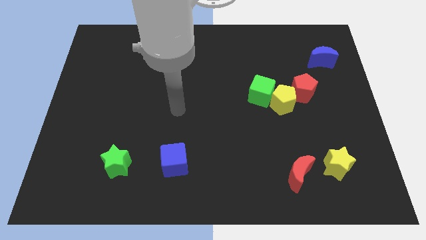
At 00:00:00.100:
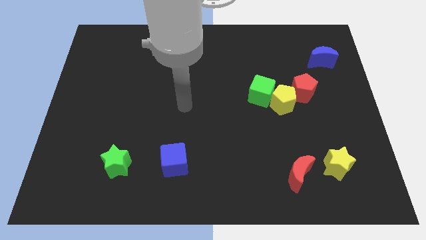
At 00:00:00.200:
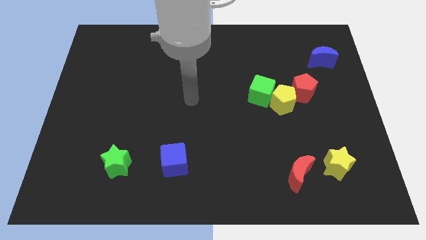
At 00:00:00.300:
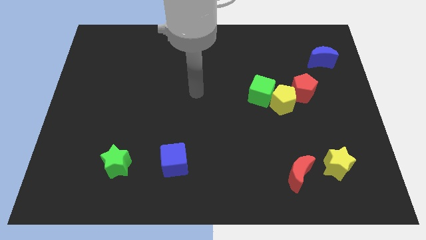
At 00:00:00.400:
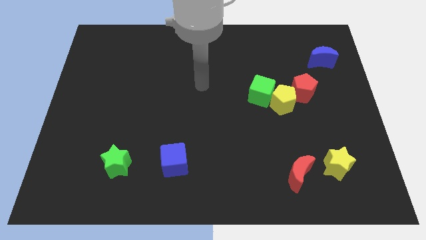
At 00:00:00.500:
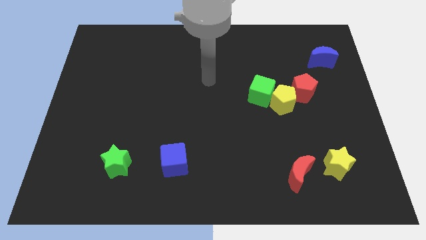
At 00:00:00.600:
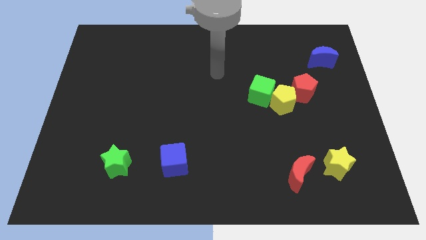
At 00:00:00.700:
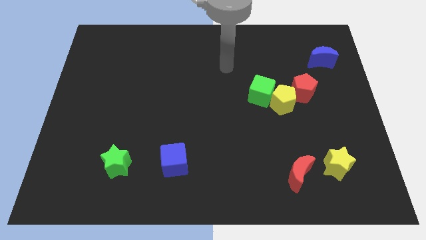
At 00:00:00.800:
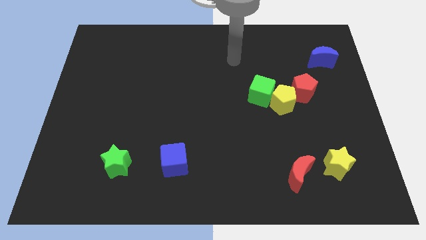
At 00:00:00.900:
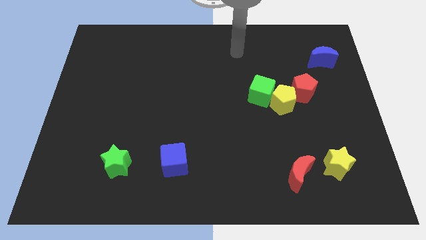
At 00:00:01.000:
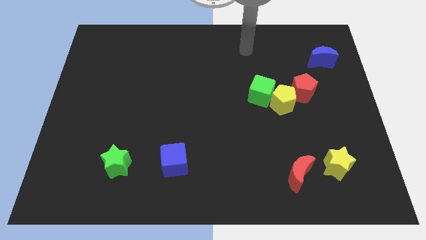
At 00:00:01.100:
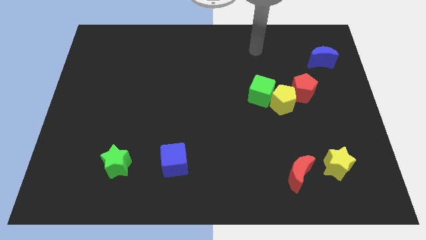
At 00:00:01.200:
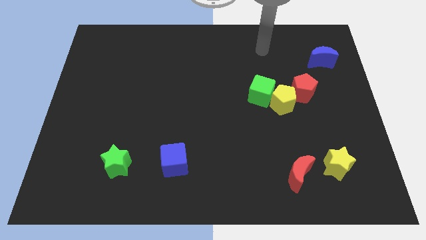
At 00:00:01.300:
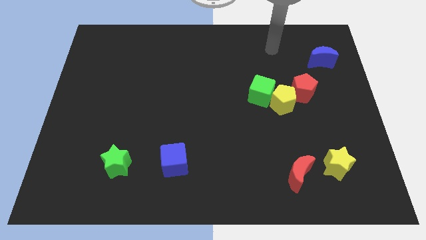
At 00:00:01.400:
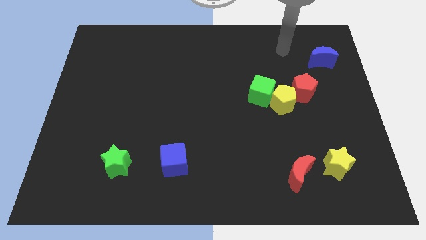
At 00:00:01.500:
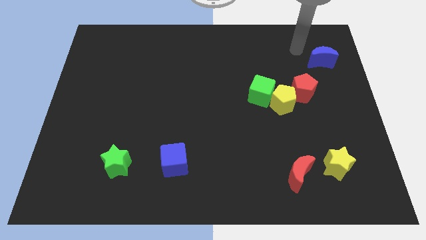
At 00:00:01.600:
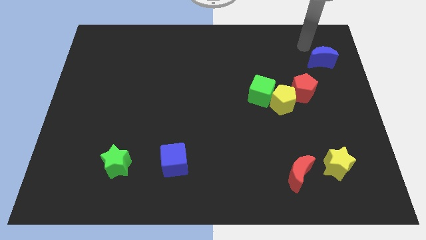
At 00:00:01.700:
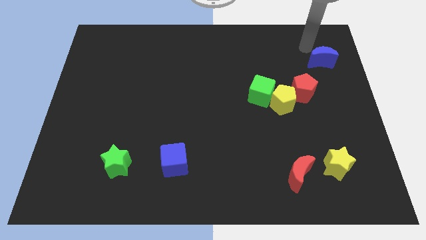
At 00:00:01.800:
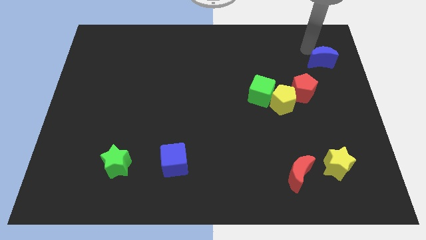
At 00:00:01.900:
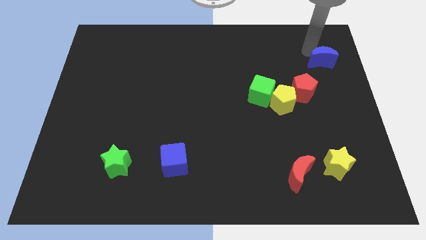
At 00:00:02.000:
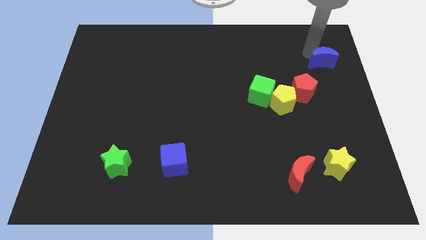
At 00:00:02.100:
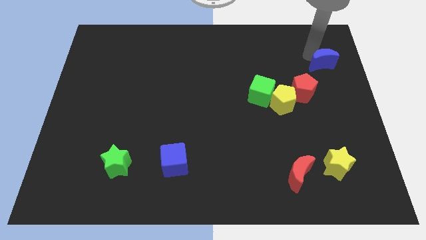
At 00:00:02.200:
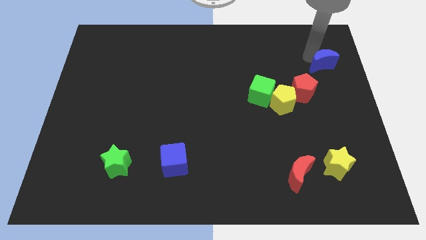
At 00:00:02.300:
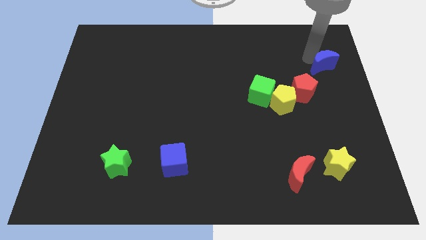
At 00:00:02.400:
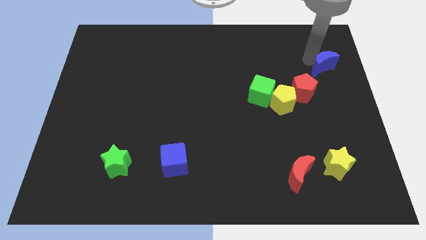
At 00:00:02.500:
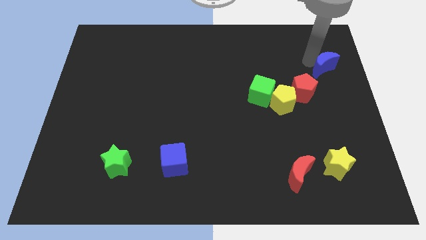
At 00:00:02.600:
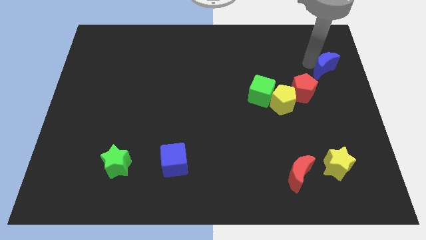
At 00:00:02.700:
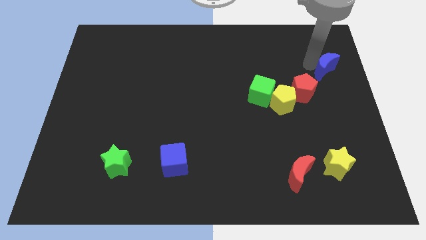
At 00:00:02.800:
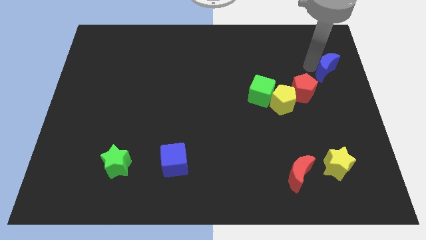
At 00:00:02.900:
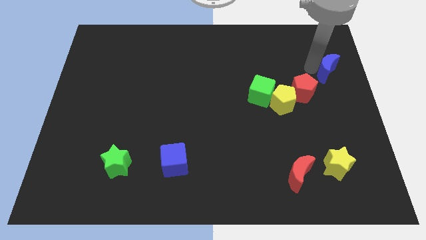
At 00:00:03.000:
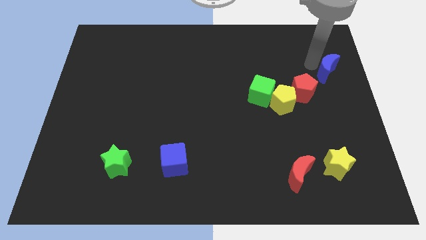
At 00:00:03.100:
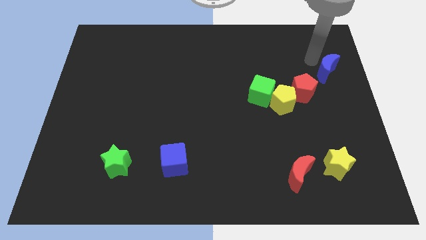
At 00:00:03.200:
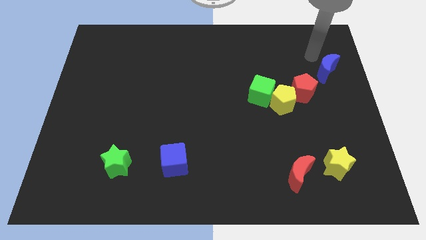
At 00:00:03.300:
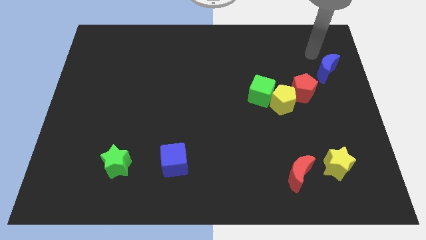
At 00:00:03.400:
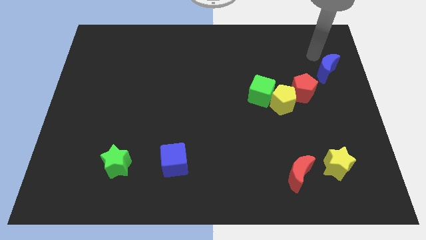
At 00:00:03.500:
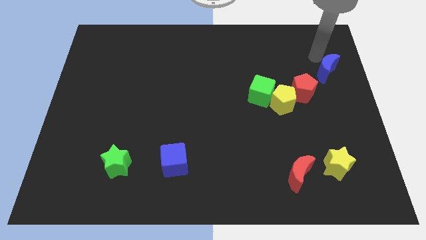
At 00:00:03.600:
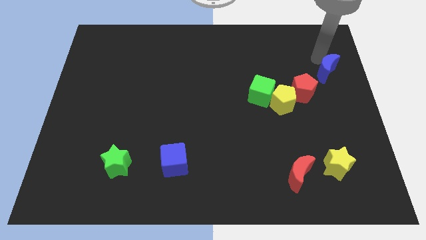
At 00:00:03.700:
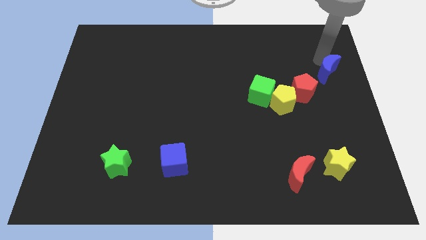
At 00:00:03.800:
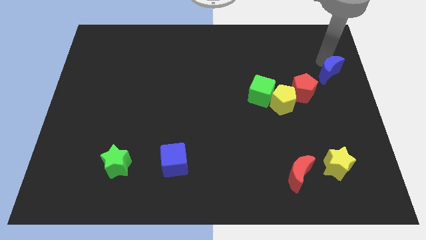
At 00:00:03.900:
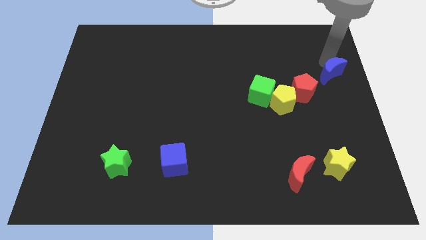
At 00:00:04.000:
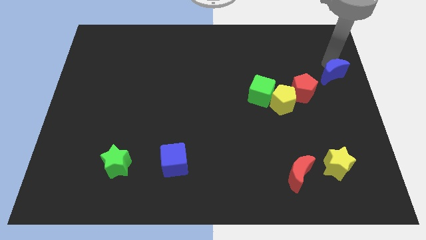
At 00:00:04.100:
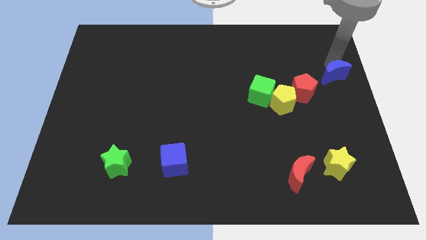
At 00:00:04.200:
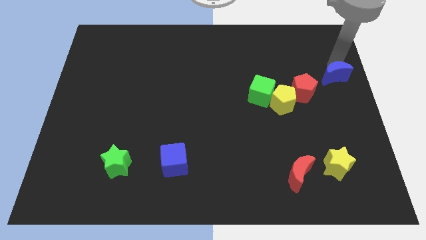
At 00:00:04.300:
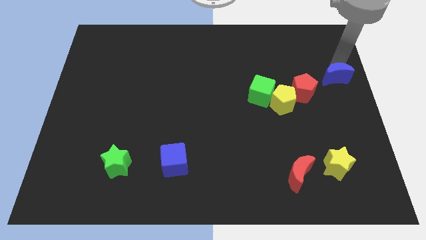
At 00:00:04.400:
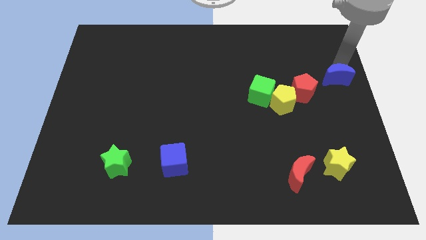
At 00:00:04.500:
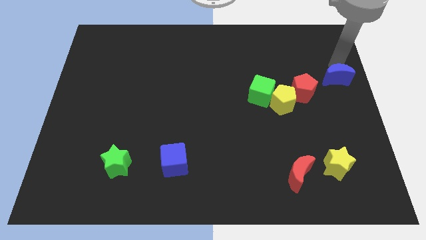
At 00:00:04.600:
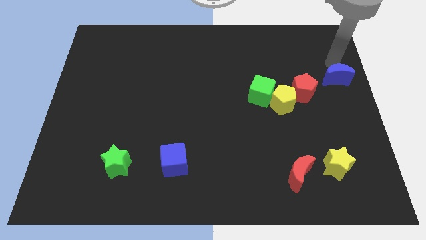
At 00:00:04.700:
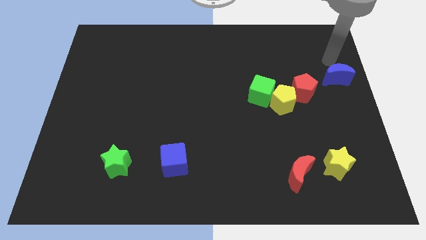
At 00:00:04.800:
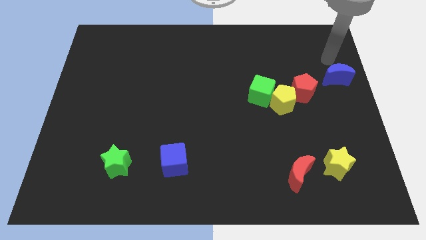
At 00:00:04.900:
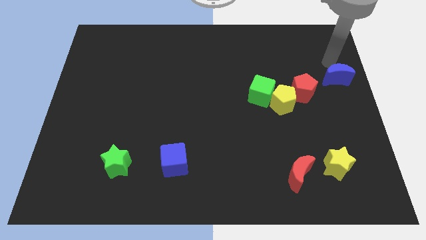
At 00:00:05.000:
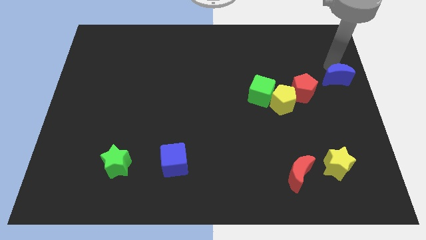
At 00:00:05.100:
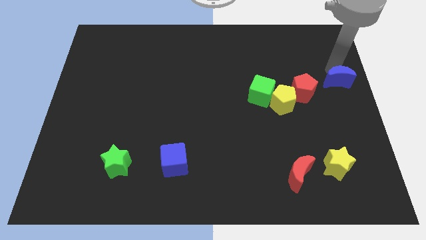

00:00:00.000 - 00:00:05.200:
push the blue moon downwards slightly

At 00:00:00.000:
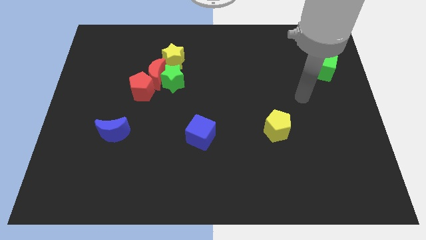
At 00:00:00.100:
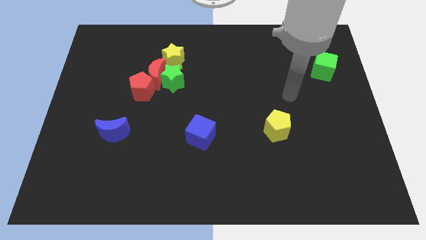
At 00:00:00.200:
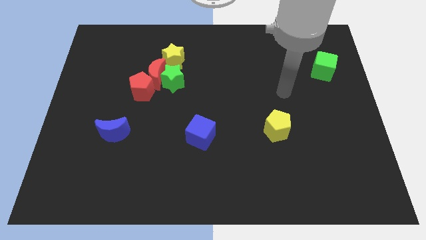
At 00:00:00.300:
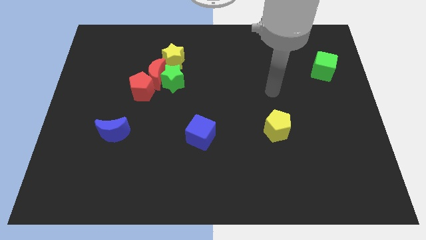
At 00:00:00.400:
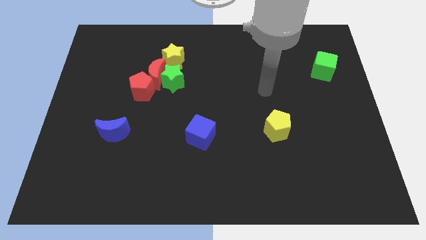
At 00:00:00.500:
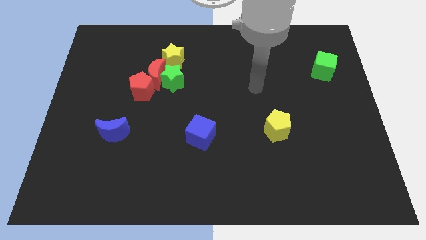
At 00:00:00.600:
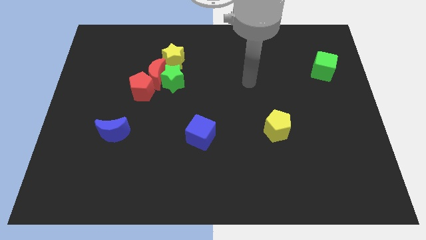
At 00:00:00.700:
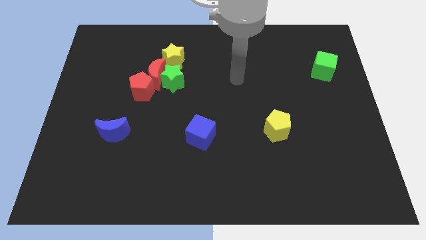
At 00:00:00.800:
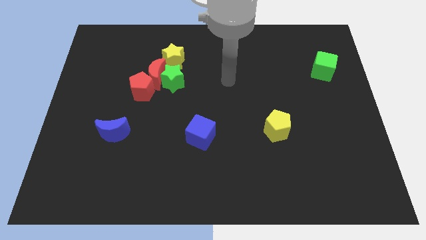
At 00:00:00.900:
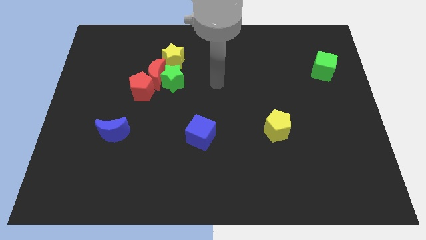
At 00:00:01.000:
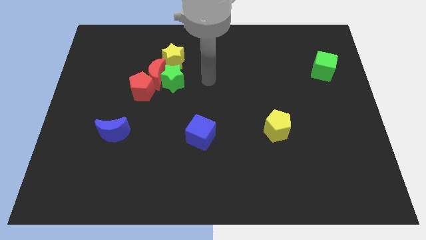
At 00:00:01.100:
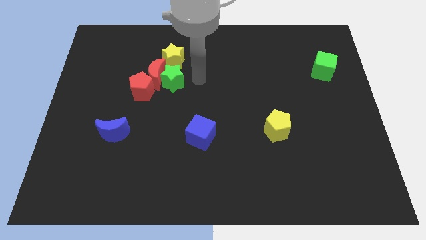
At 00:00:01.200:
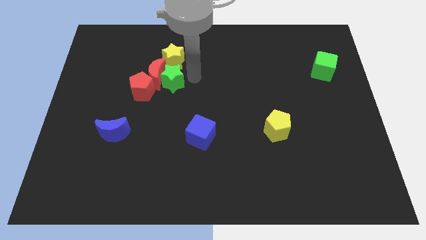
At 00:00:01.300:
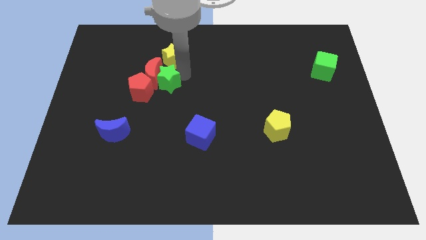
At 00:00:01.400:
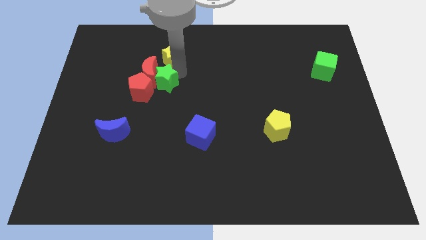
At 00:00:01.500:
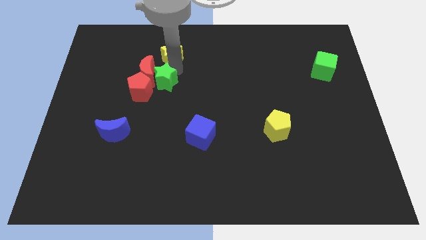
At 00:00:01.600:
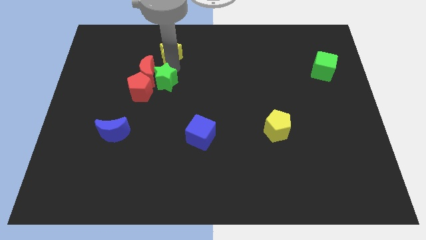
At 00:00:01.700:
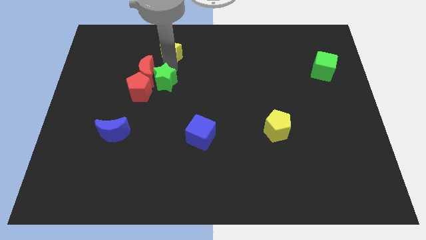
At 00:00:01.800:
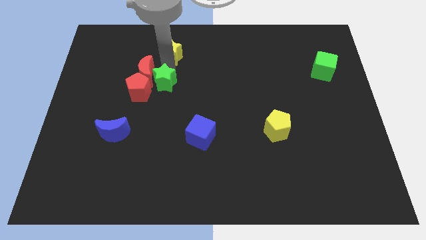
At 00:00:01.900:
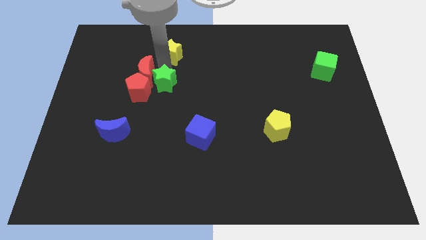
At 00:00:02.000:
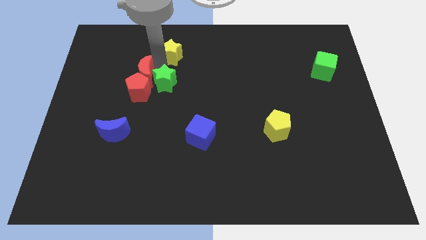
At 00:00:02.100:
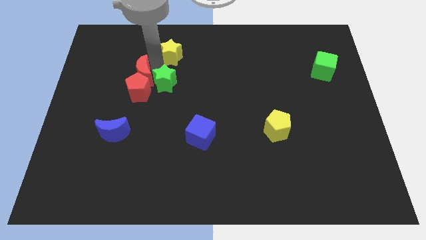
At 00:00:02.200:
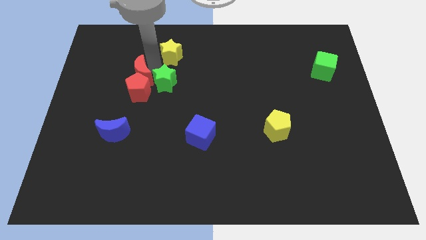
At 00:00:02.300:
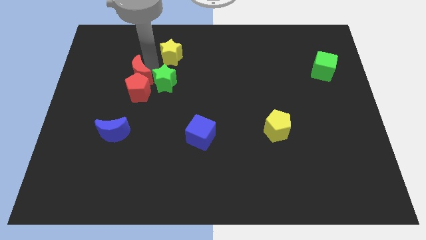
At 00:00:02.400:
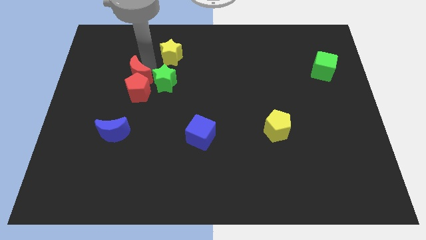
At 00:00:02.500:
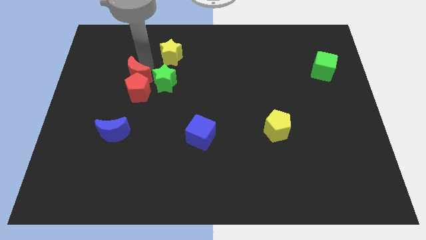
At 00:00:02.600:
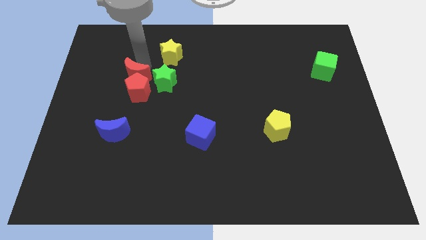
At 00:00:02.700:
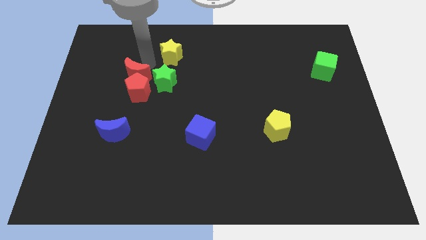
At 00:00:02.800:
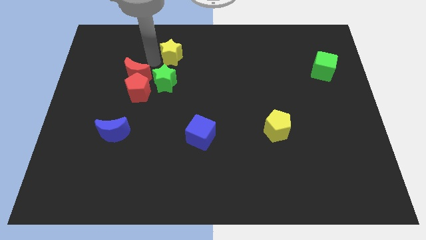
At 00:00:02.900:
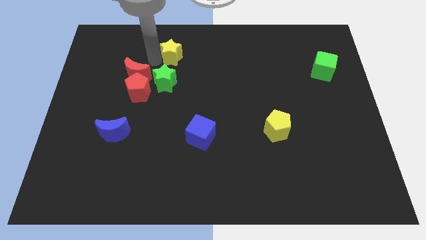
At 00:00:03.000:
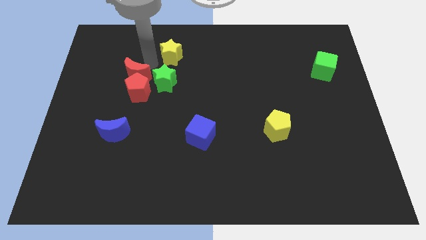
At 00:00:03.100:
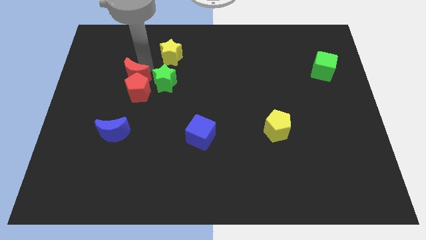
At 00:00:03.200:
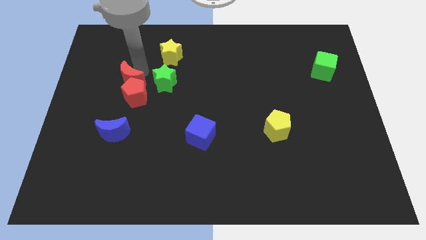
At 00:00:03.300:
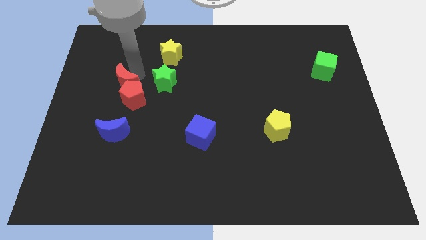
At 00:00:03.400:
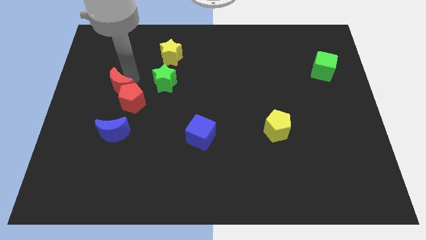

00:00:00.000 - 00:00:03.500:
slide the red moon a little bit down and to the left
